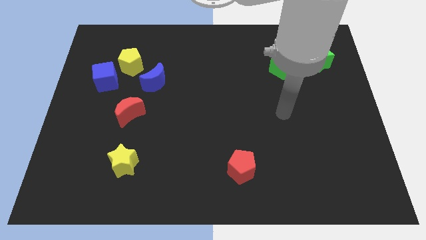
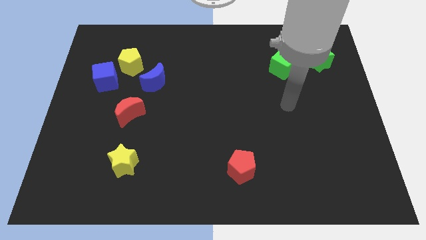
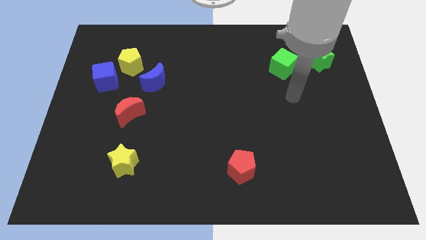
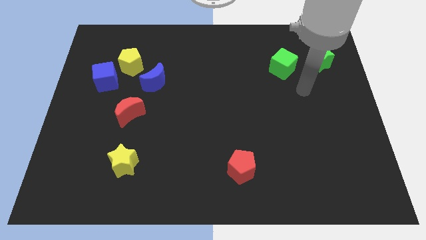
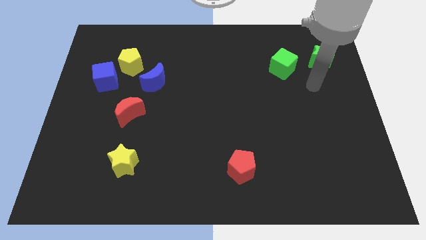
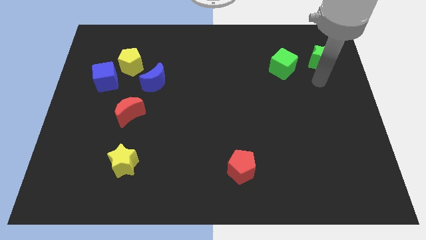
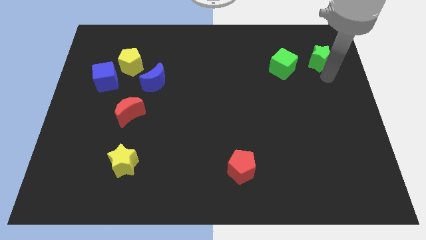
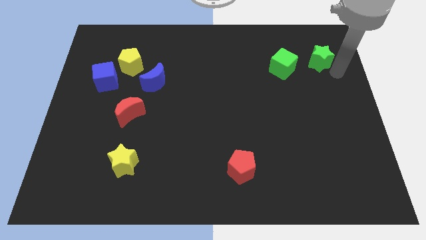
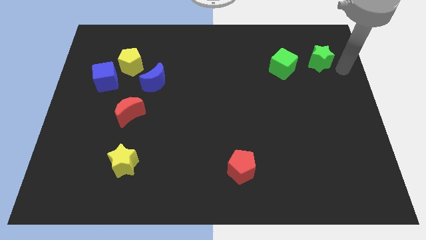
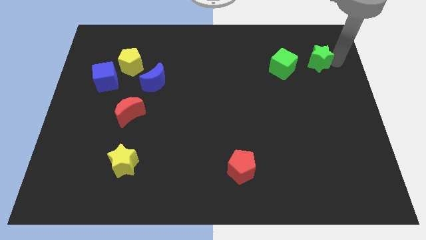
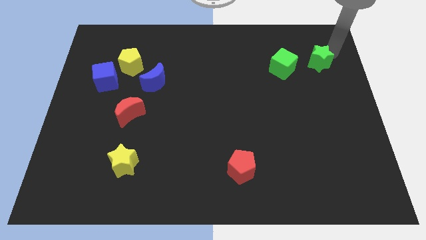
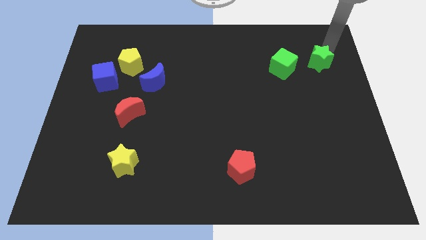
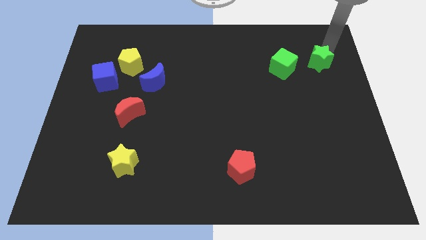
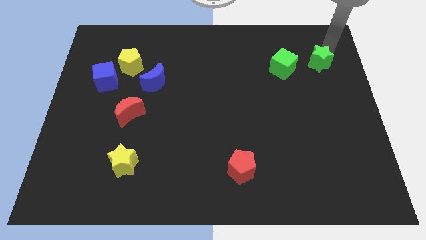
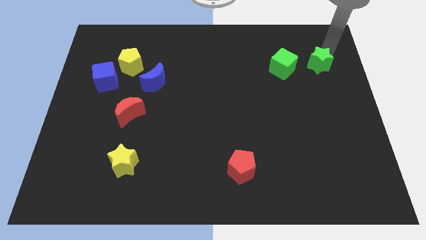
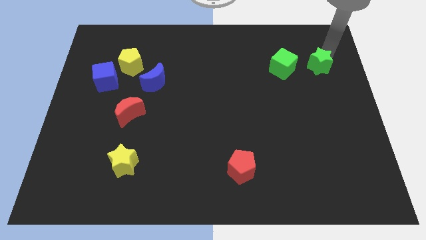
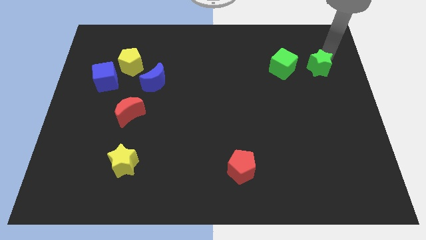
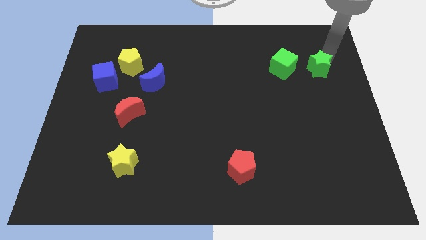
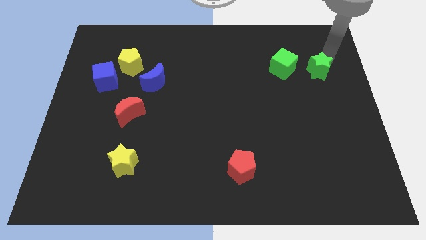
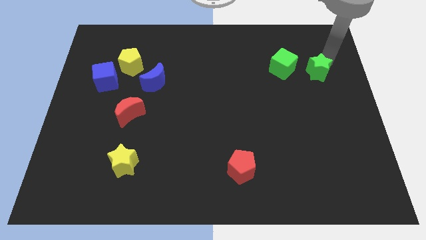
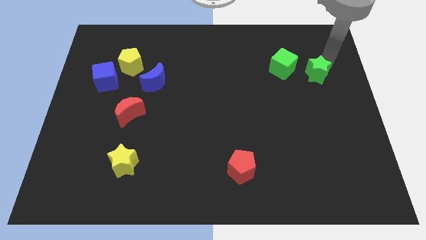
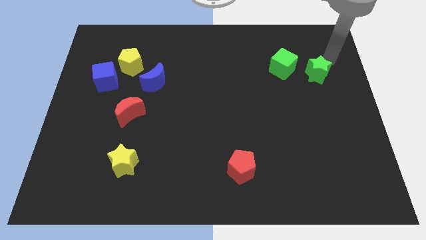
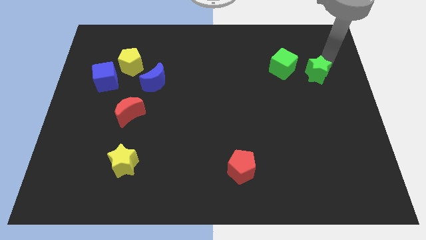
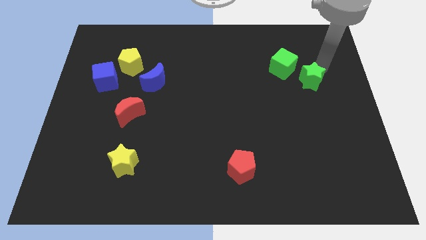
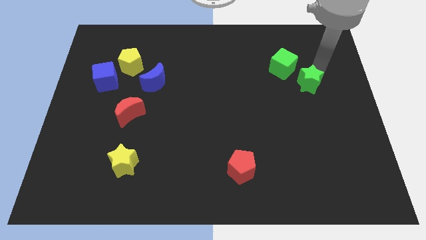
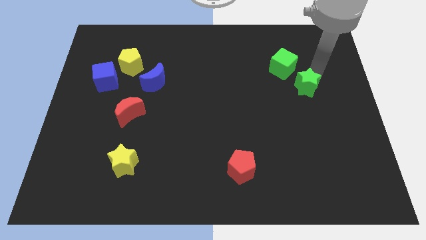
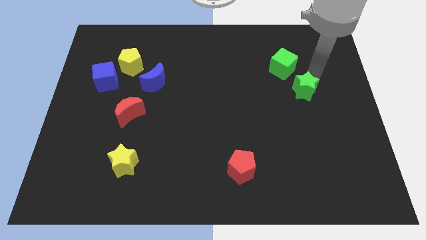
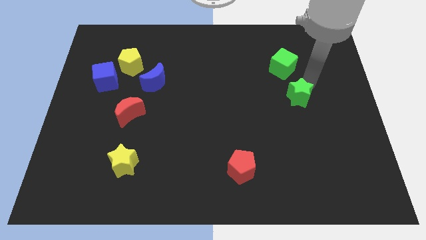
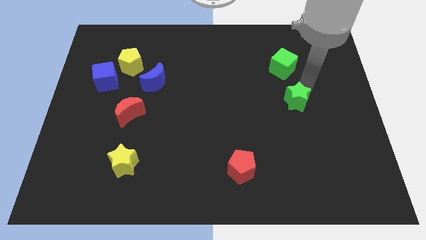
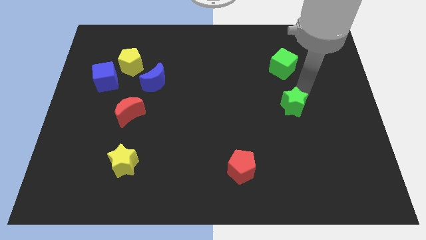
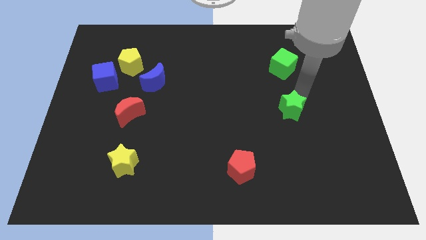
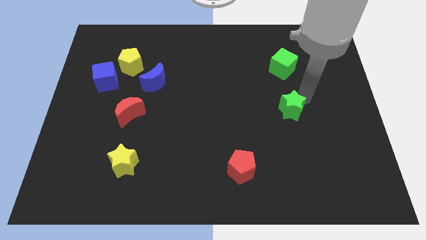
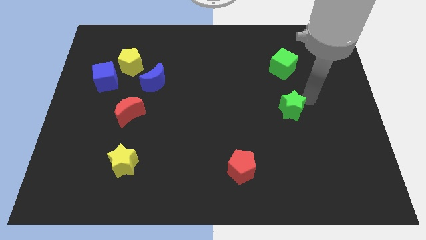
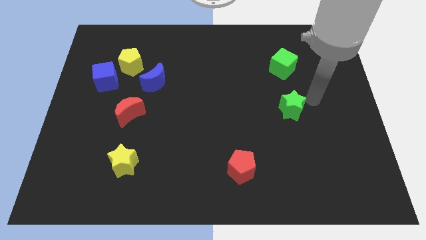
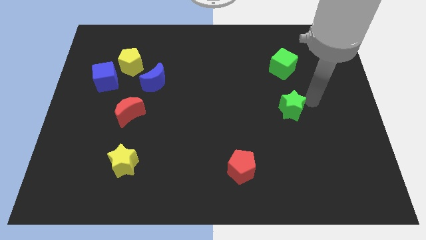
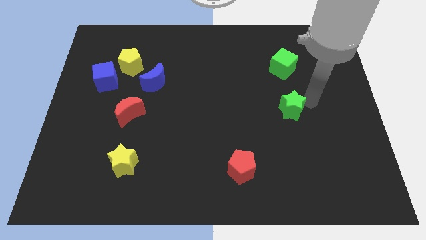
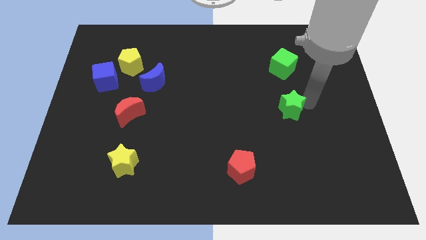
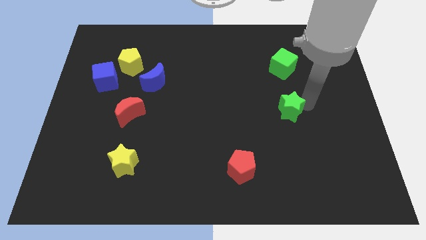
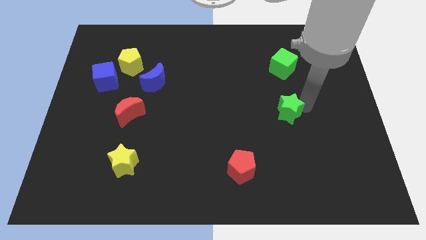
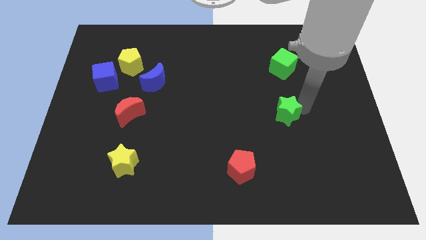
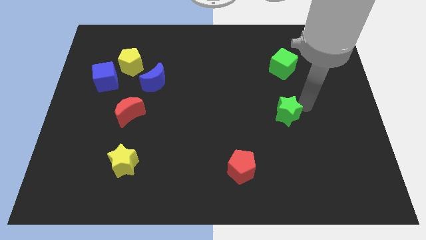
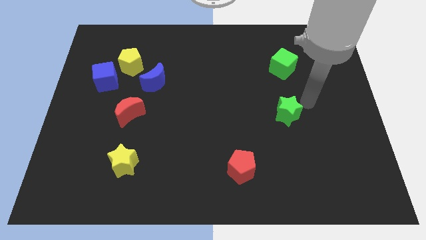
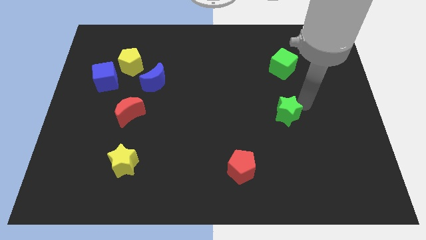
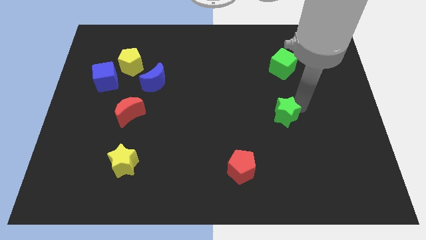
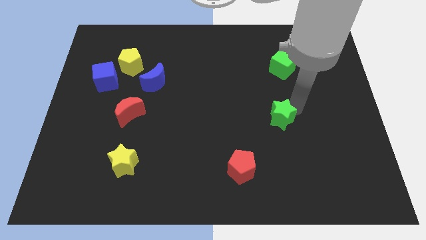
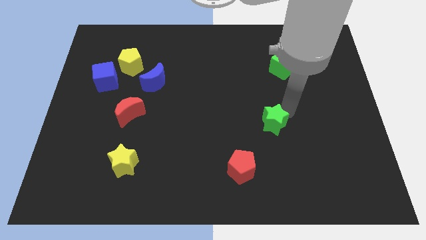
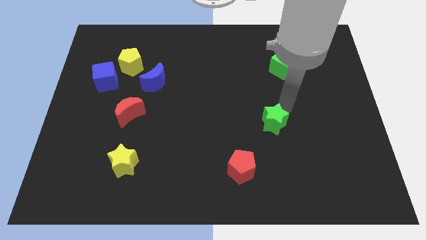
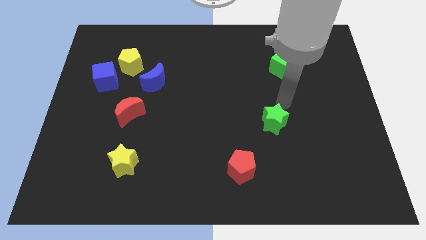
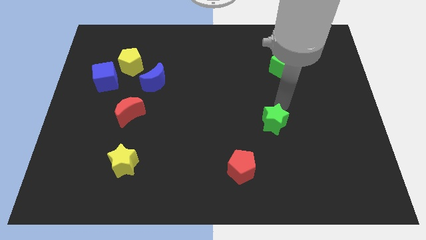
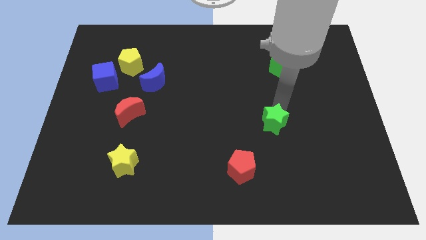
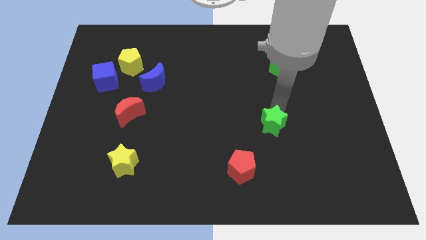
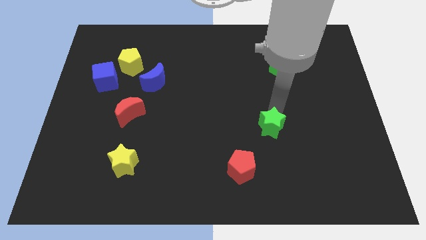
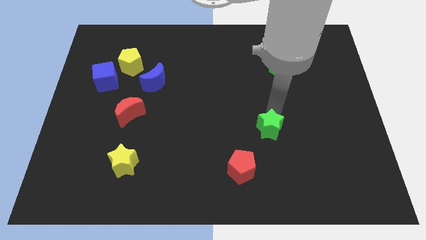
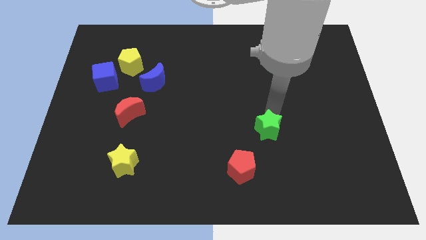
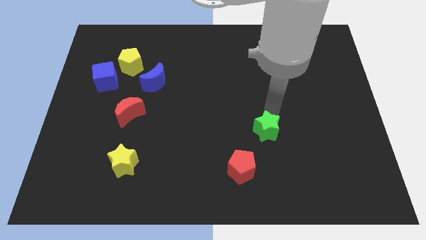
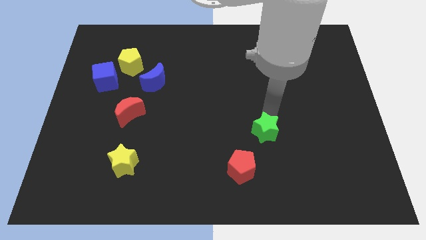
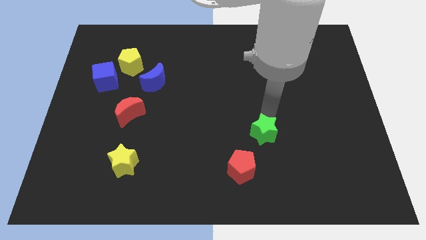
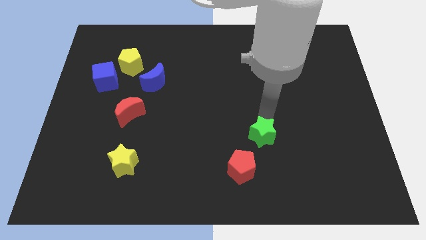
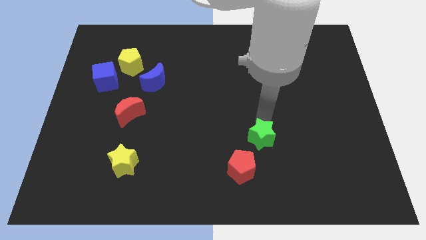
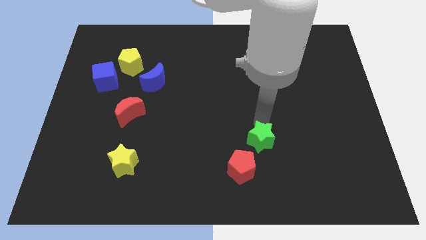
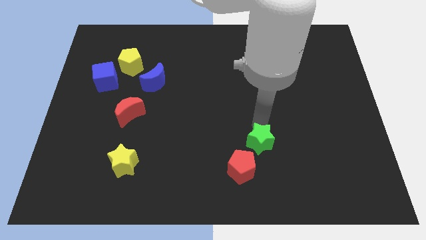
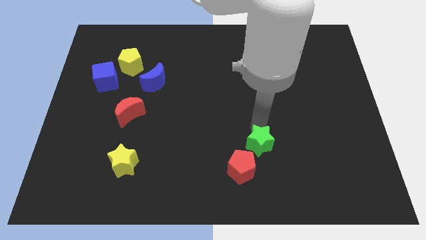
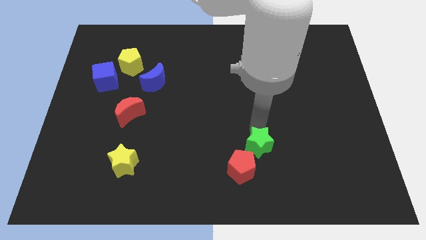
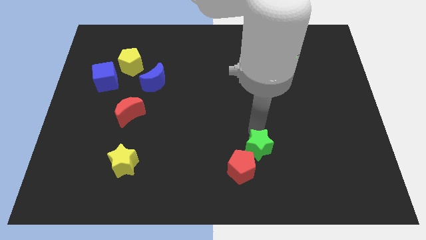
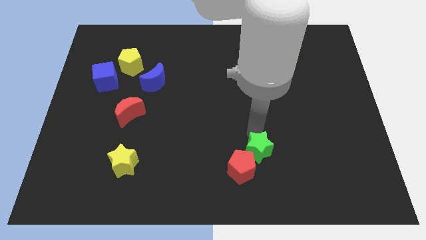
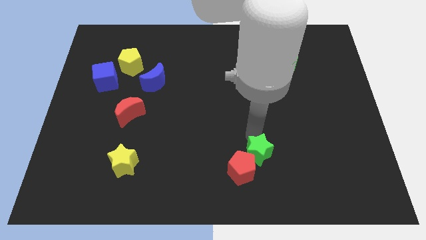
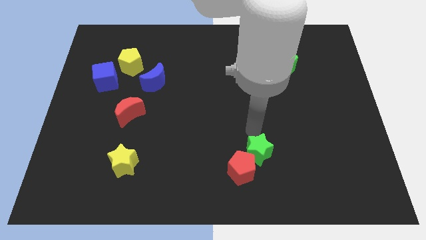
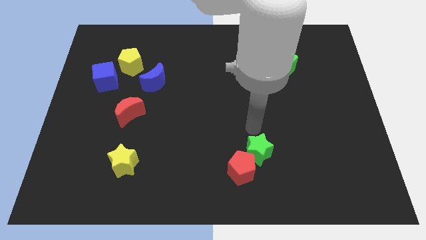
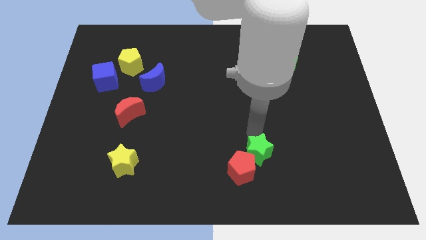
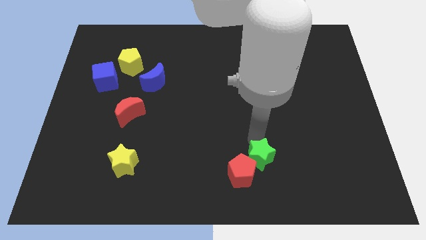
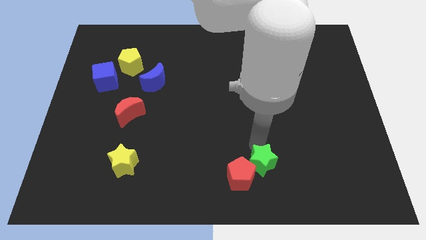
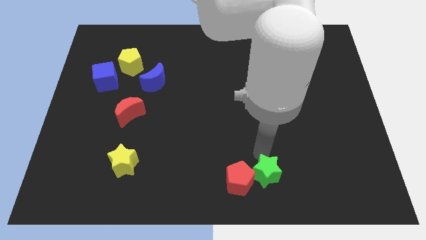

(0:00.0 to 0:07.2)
push the green star to the bottom
